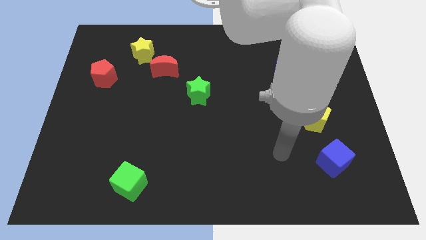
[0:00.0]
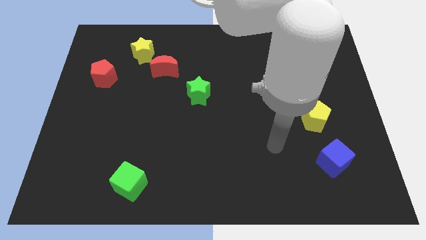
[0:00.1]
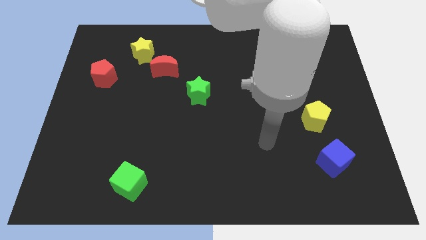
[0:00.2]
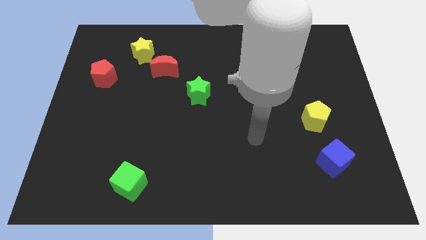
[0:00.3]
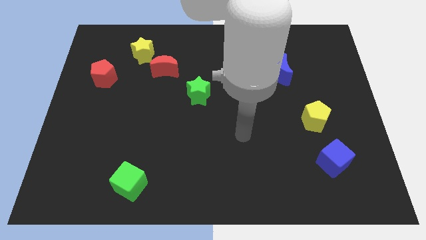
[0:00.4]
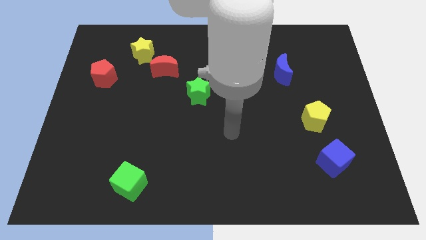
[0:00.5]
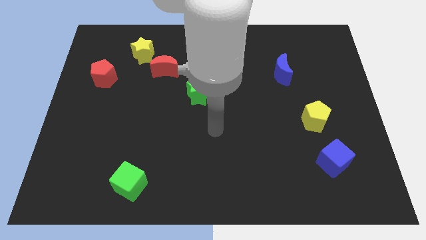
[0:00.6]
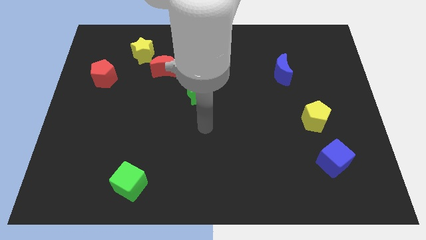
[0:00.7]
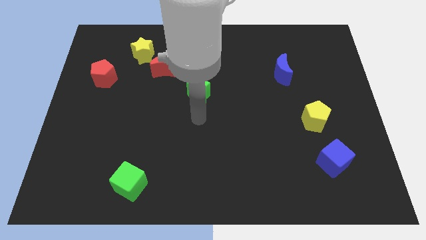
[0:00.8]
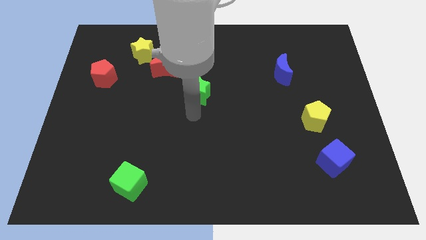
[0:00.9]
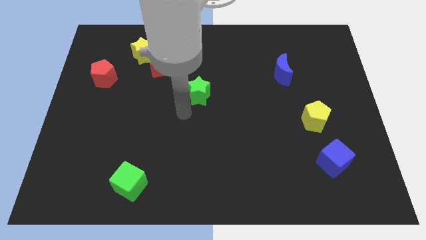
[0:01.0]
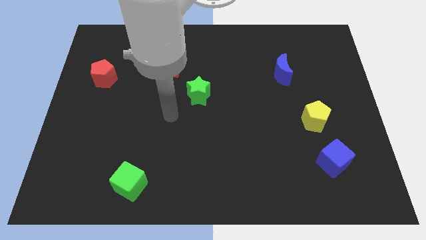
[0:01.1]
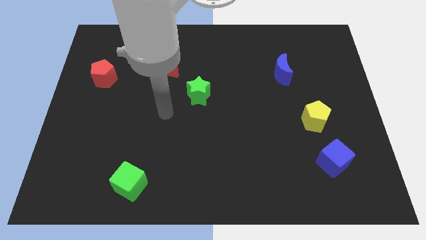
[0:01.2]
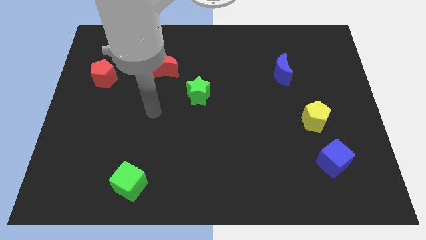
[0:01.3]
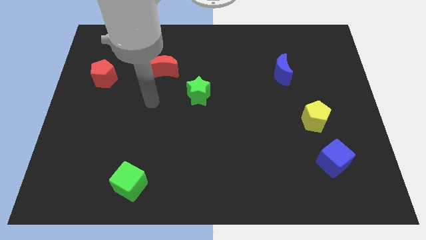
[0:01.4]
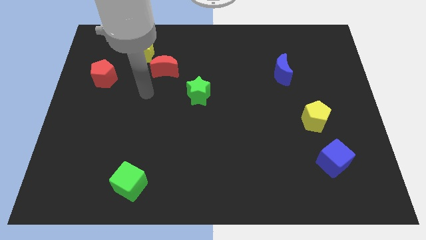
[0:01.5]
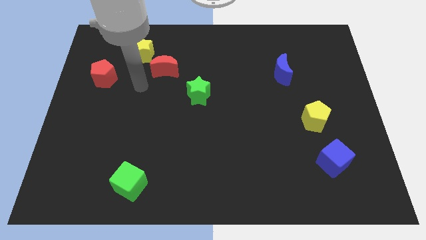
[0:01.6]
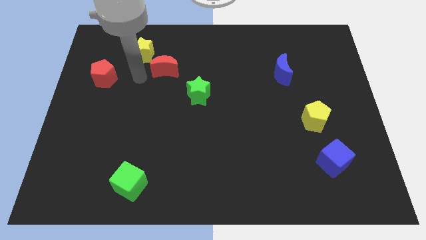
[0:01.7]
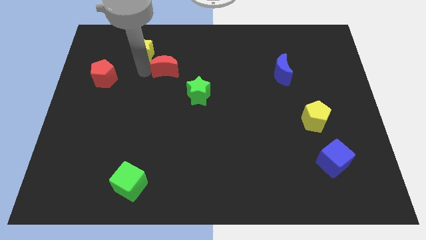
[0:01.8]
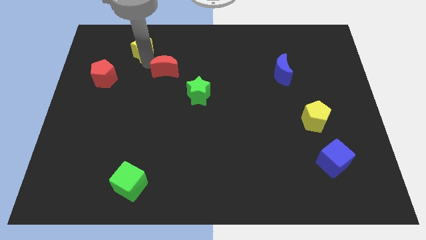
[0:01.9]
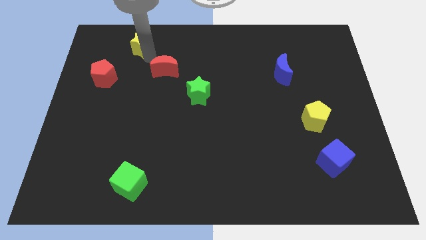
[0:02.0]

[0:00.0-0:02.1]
pull the red moon apart from the yellow star

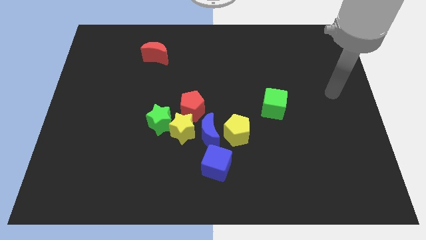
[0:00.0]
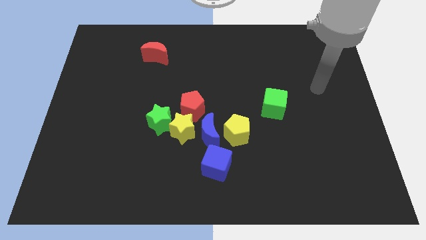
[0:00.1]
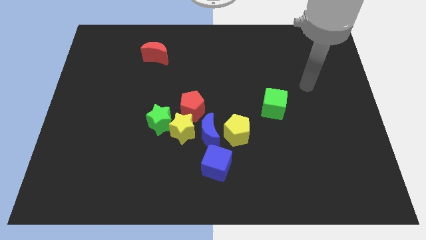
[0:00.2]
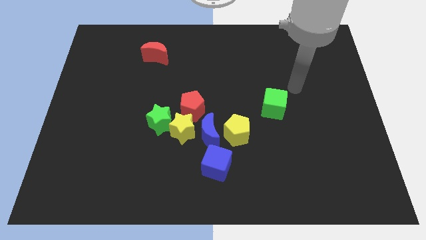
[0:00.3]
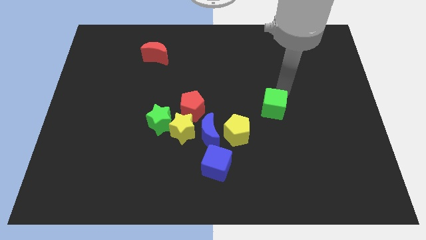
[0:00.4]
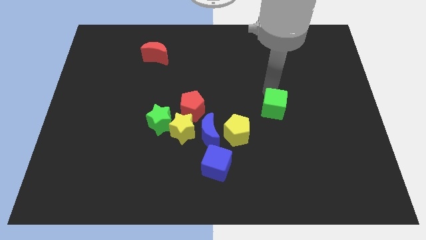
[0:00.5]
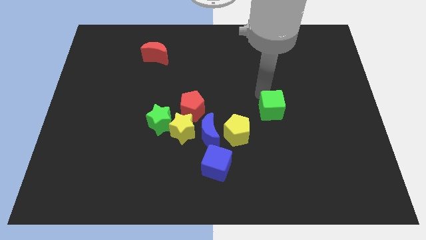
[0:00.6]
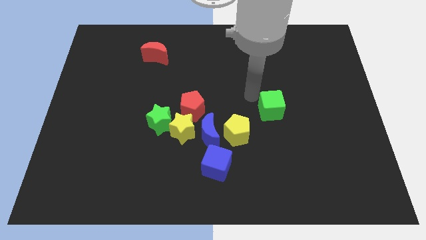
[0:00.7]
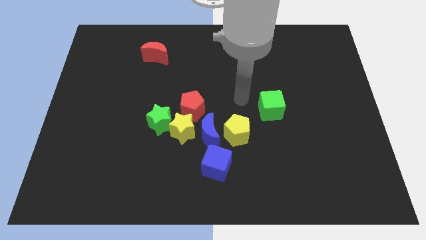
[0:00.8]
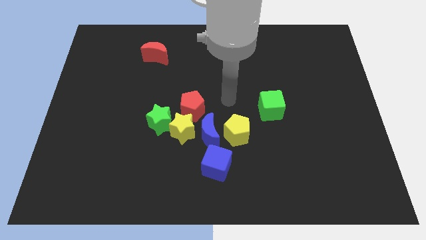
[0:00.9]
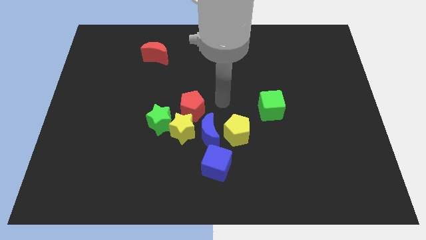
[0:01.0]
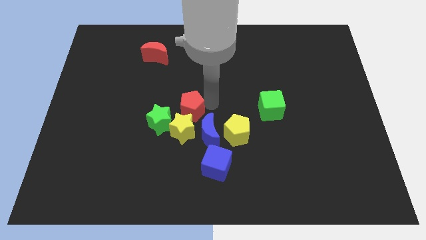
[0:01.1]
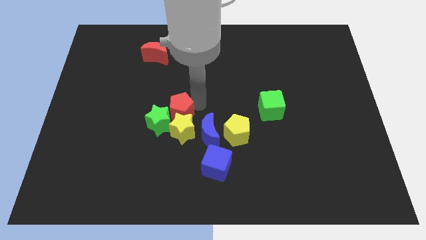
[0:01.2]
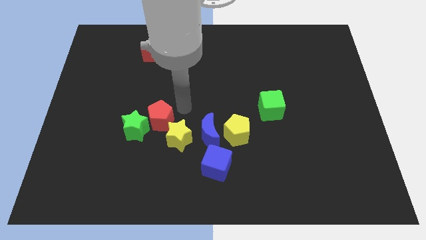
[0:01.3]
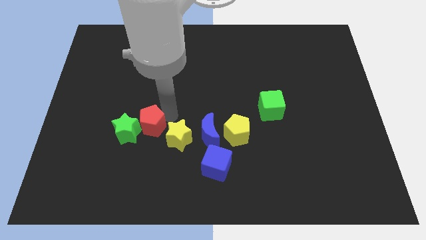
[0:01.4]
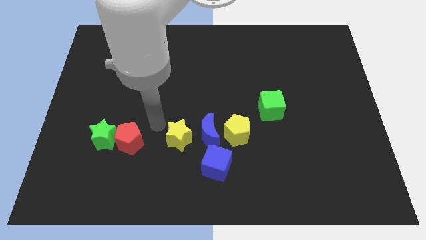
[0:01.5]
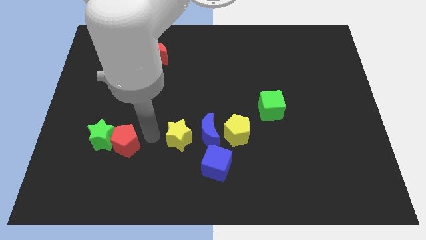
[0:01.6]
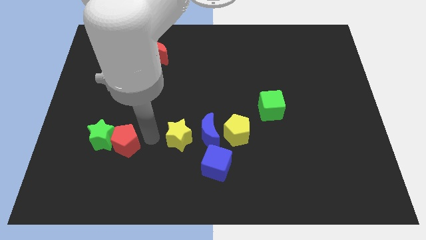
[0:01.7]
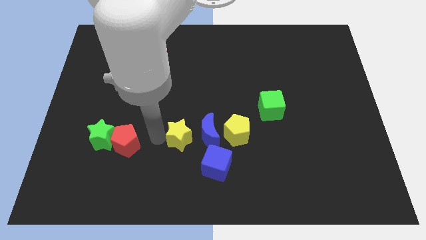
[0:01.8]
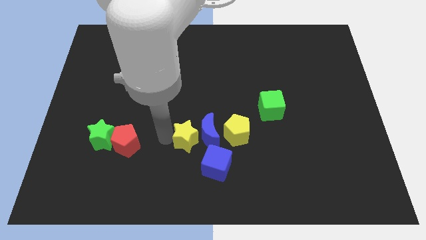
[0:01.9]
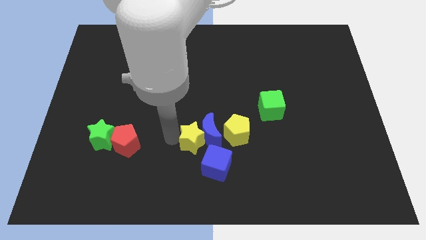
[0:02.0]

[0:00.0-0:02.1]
move the yellow star away from the blue moon, green star, and red pentagon

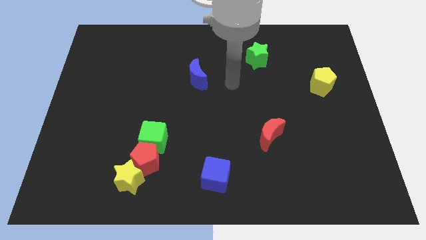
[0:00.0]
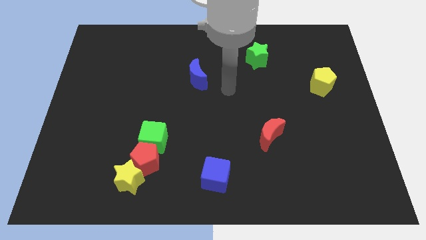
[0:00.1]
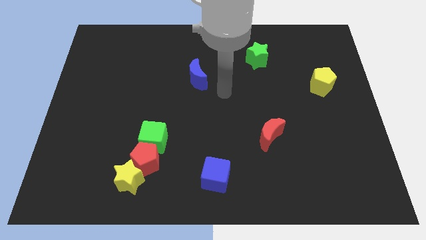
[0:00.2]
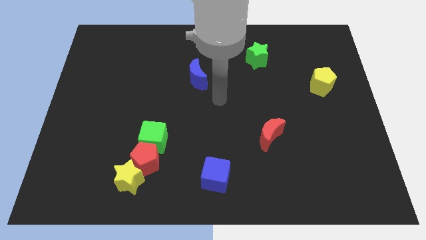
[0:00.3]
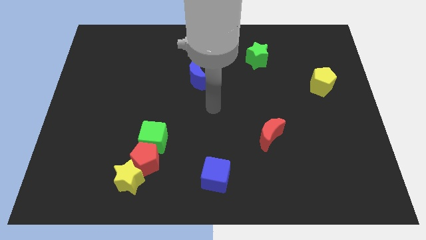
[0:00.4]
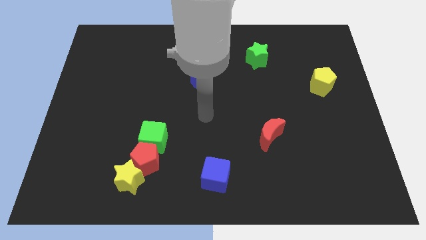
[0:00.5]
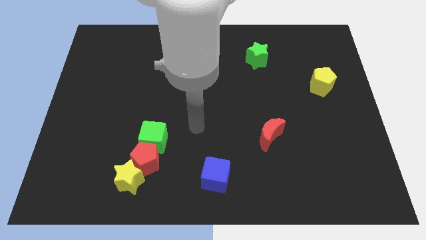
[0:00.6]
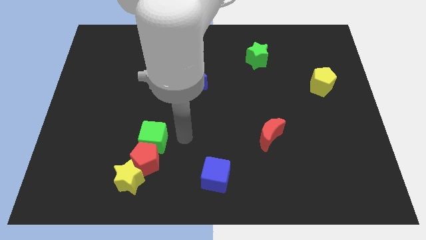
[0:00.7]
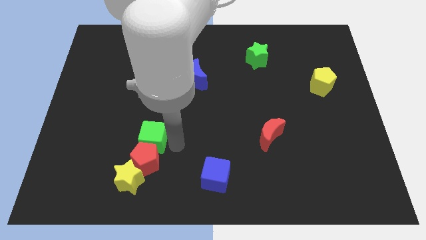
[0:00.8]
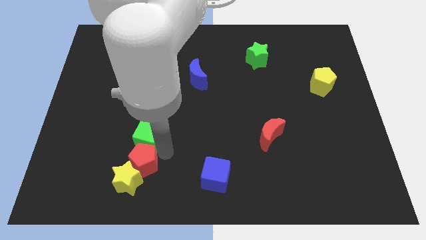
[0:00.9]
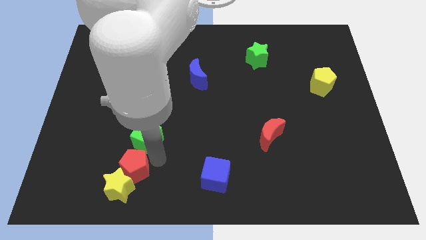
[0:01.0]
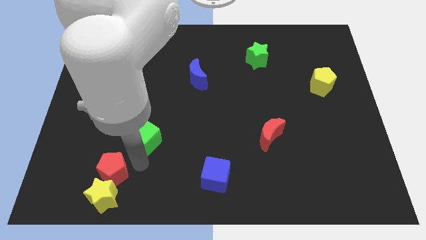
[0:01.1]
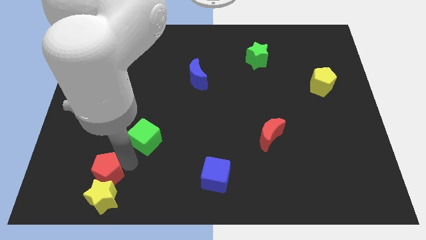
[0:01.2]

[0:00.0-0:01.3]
pull the green cube apart from the red pentagon

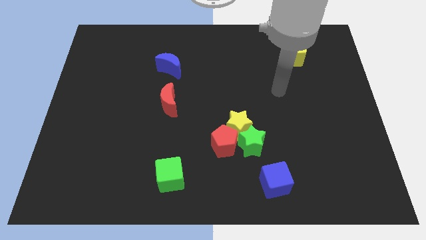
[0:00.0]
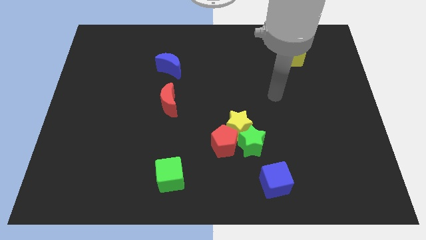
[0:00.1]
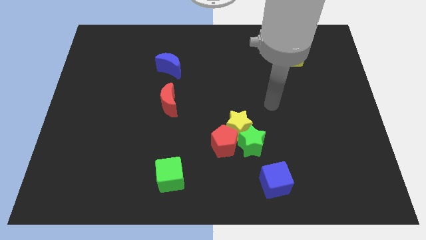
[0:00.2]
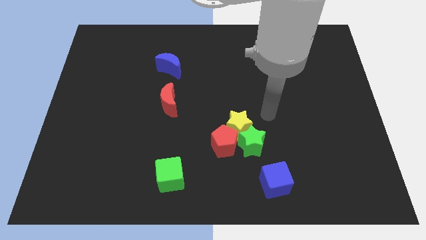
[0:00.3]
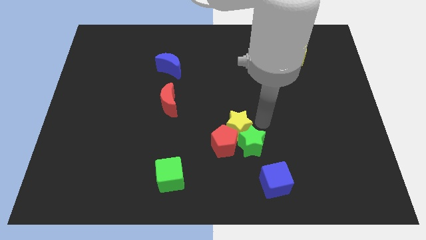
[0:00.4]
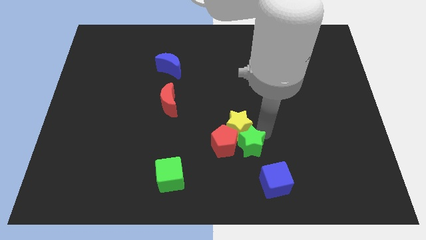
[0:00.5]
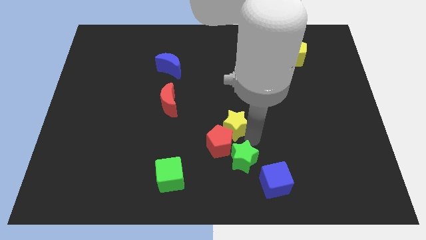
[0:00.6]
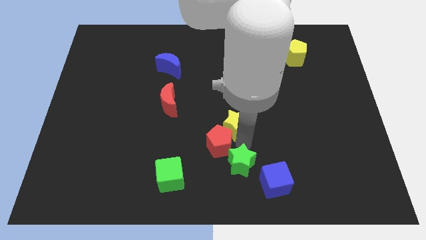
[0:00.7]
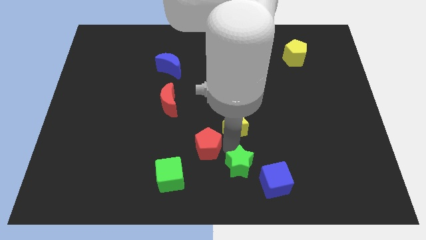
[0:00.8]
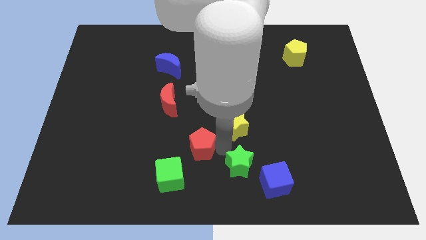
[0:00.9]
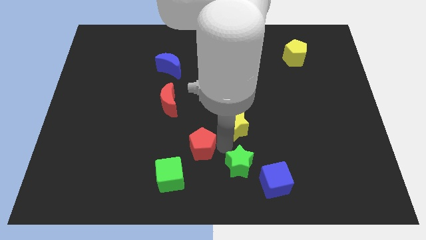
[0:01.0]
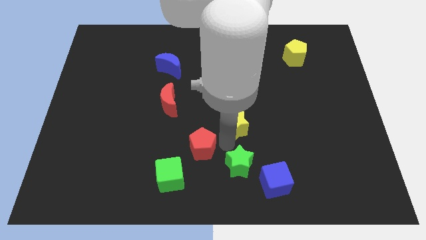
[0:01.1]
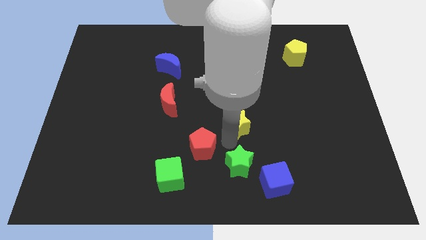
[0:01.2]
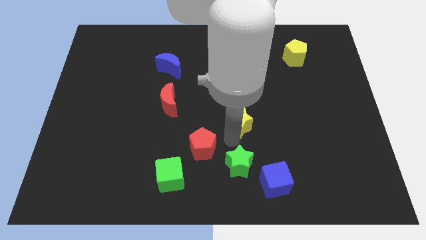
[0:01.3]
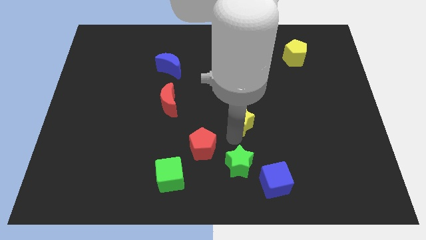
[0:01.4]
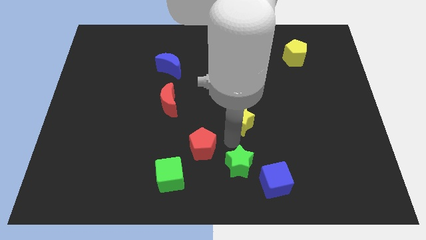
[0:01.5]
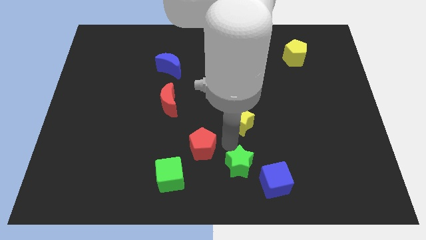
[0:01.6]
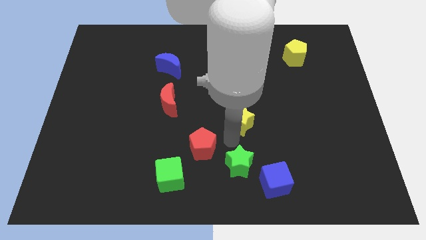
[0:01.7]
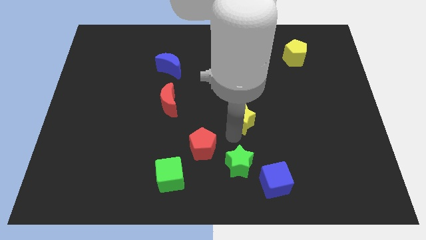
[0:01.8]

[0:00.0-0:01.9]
separate the yellow star from the green star and red pentagon

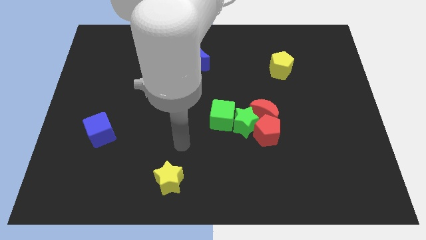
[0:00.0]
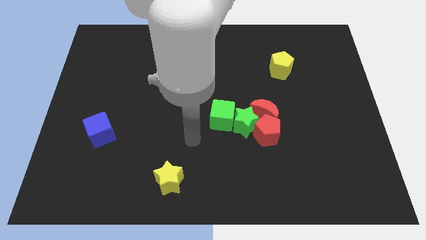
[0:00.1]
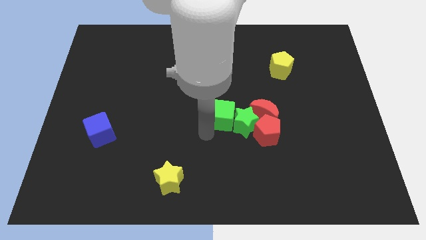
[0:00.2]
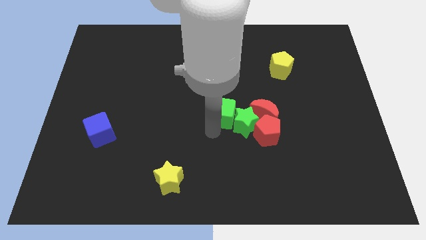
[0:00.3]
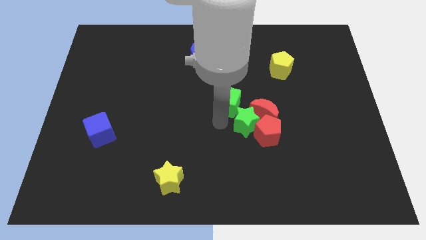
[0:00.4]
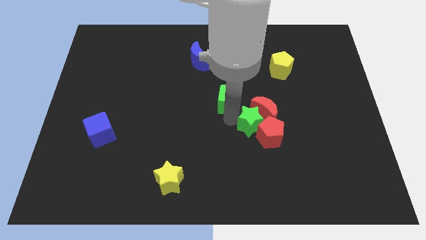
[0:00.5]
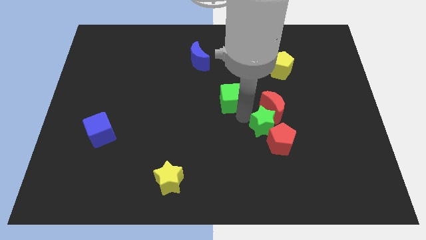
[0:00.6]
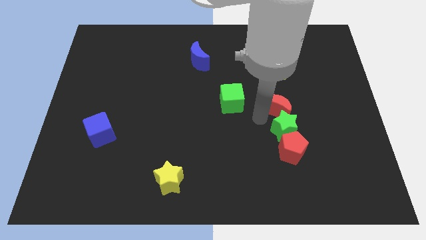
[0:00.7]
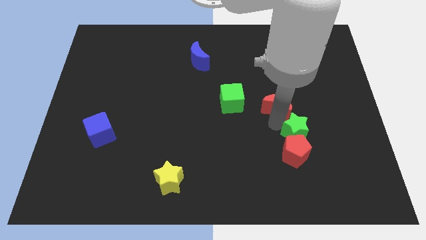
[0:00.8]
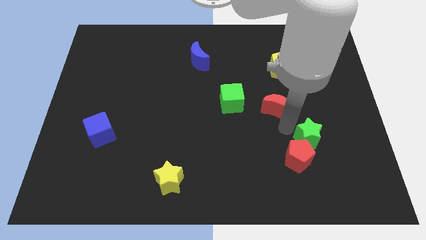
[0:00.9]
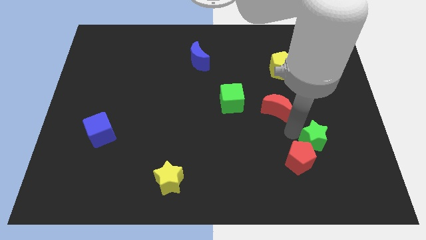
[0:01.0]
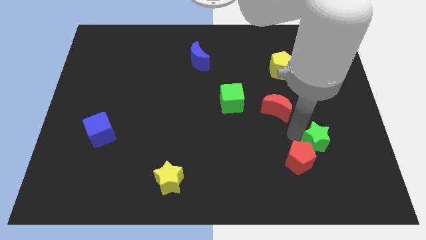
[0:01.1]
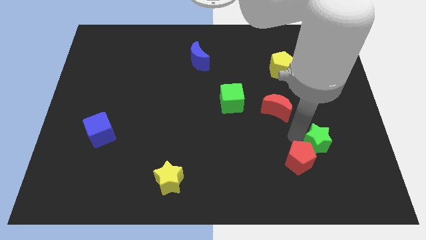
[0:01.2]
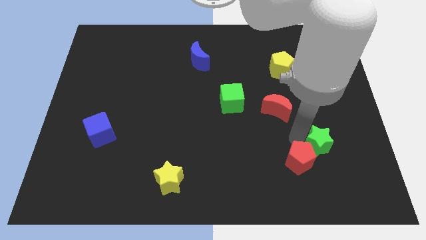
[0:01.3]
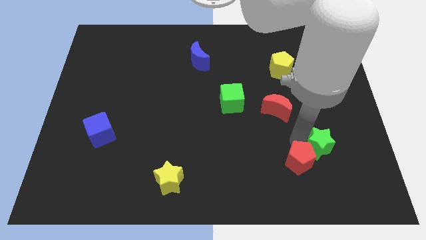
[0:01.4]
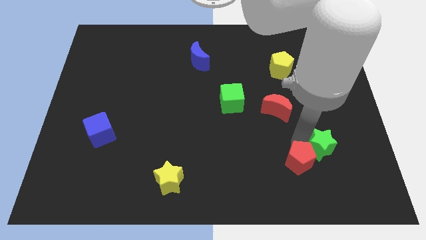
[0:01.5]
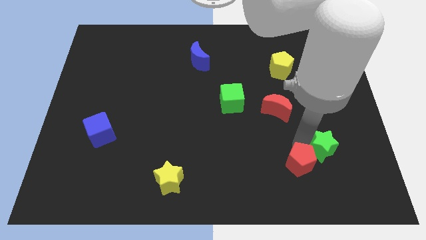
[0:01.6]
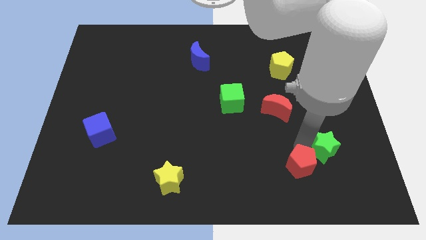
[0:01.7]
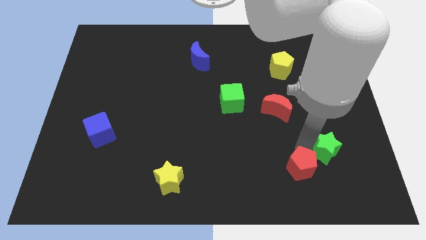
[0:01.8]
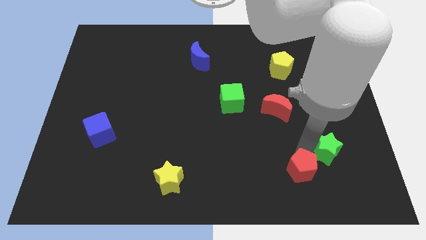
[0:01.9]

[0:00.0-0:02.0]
separate the red pentagon from the red moon and green star
